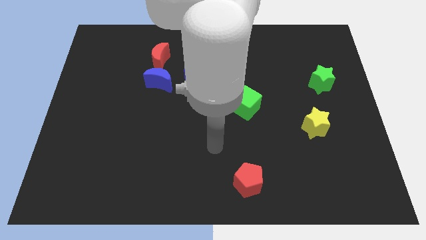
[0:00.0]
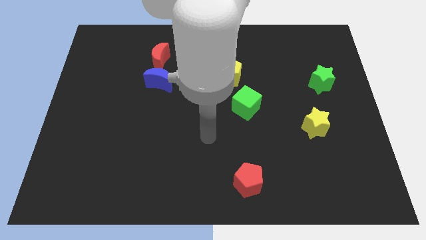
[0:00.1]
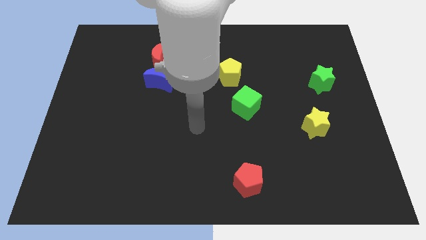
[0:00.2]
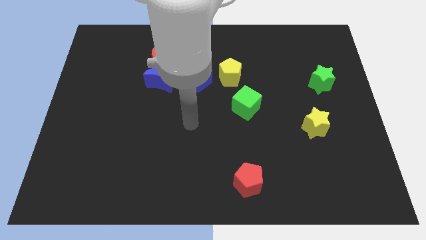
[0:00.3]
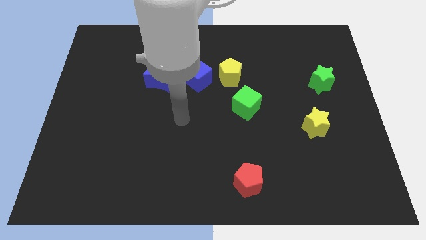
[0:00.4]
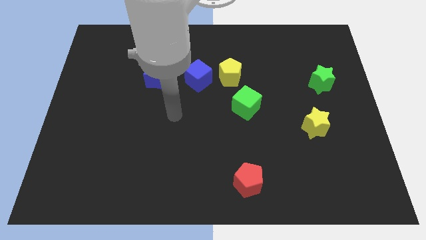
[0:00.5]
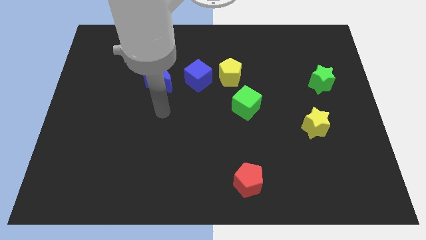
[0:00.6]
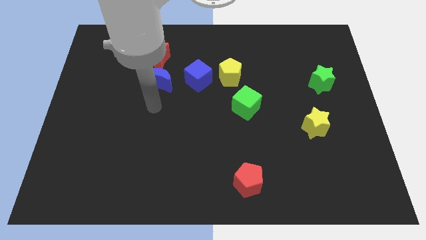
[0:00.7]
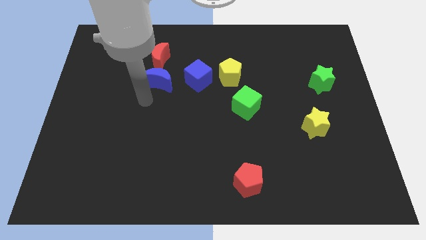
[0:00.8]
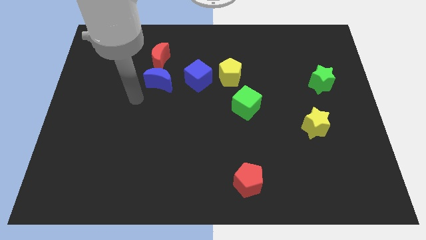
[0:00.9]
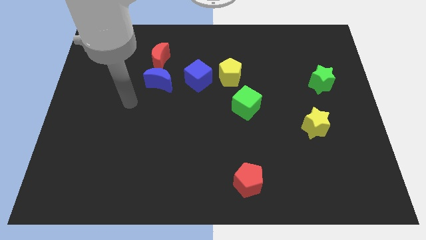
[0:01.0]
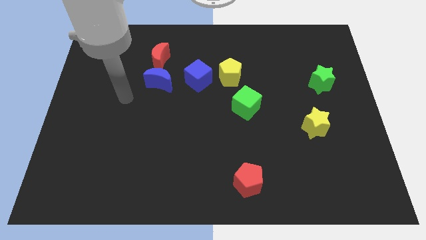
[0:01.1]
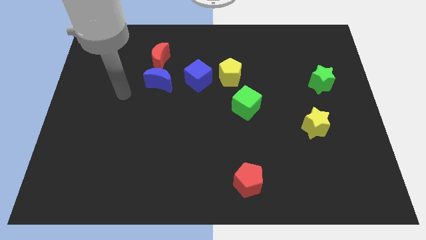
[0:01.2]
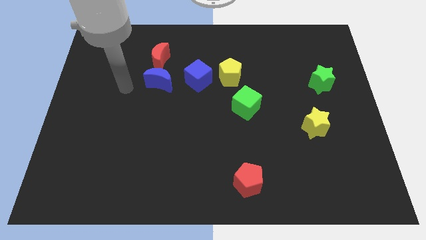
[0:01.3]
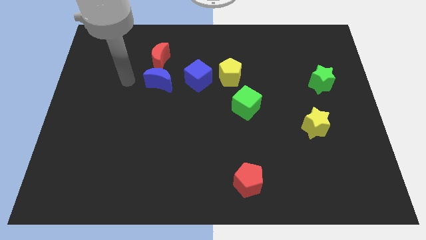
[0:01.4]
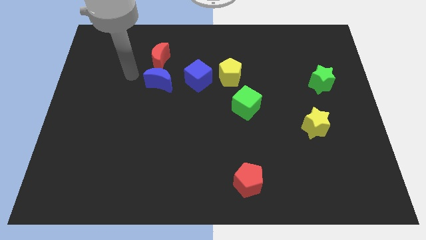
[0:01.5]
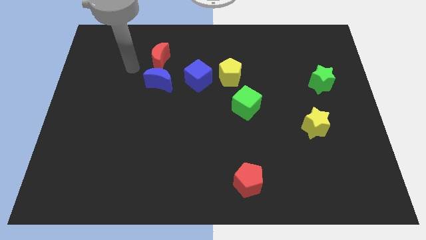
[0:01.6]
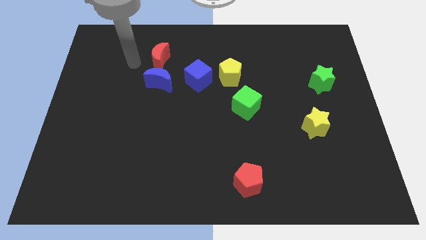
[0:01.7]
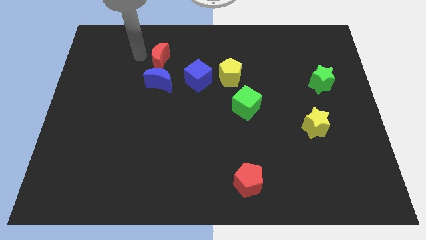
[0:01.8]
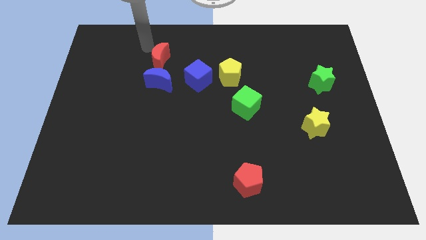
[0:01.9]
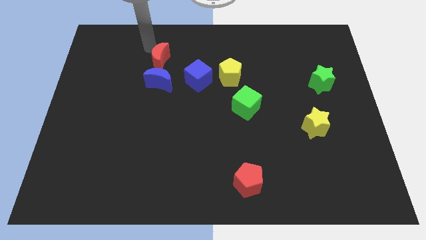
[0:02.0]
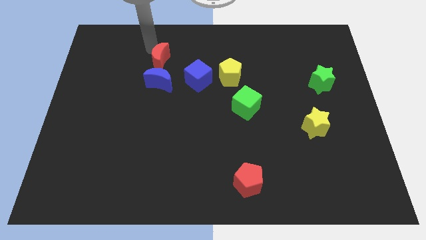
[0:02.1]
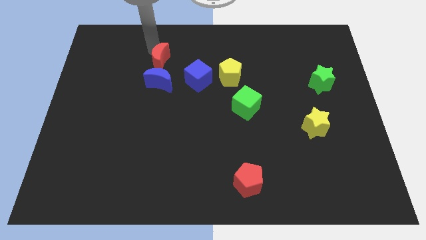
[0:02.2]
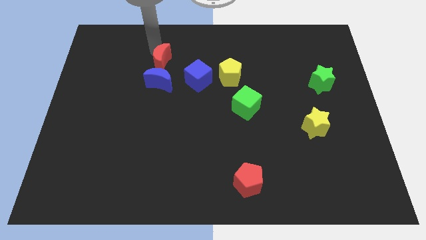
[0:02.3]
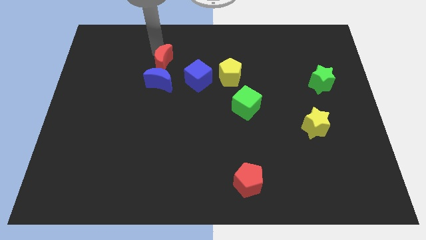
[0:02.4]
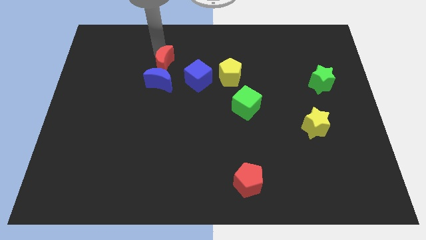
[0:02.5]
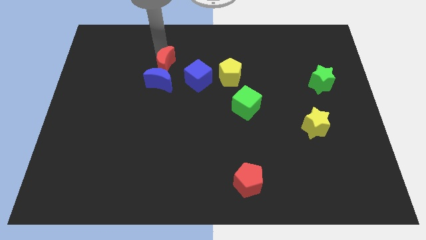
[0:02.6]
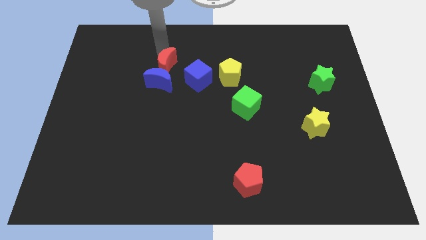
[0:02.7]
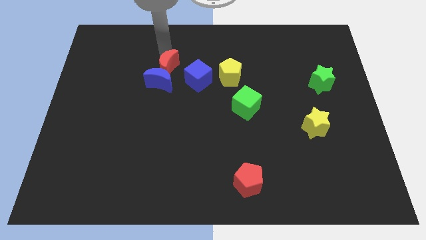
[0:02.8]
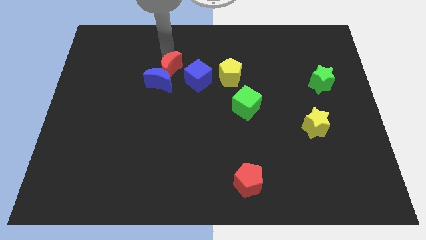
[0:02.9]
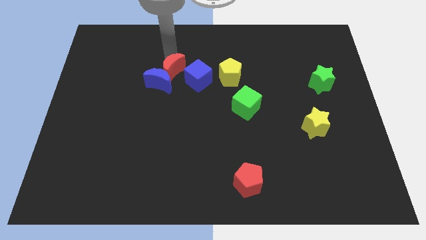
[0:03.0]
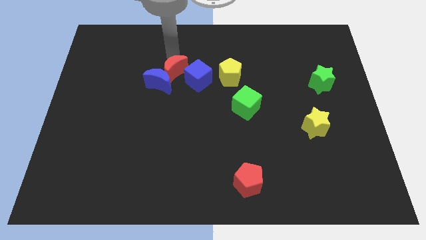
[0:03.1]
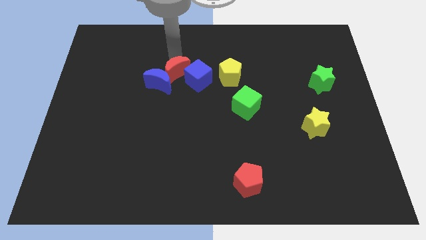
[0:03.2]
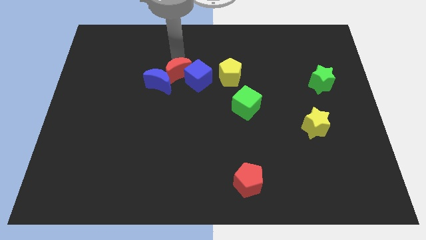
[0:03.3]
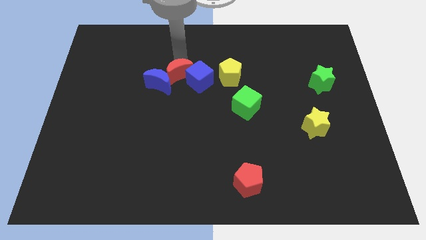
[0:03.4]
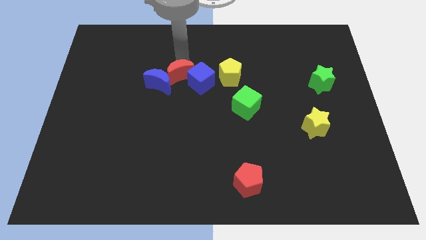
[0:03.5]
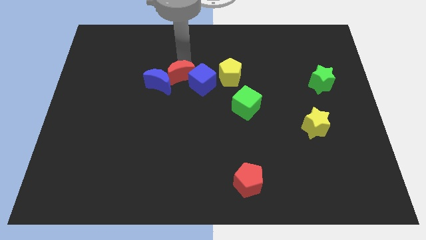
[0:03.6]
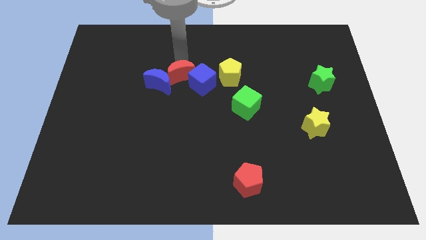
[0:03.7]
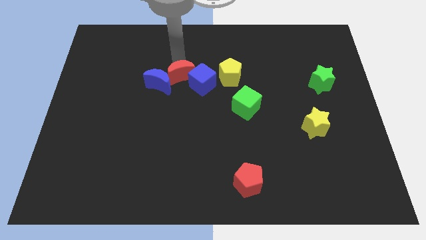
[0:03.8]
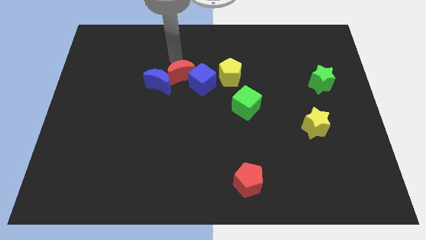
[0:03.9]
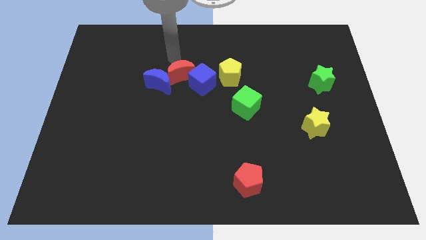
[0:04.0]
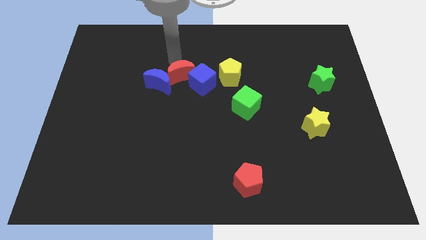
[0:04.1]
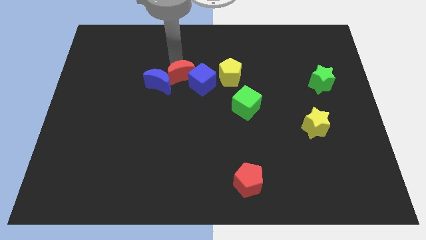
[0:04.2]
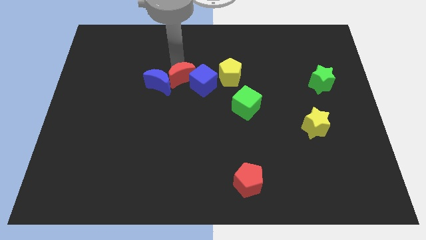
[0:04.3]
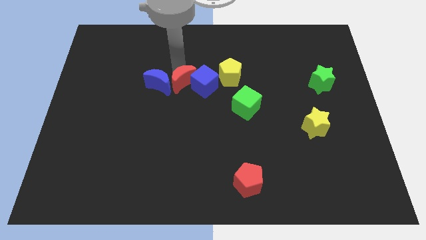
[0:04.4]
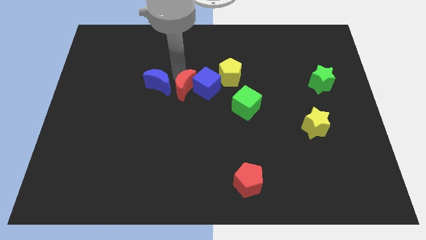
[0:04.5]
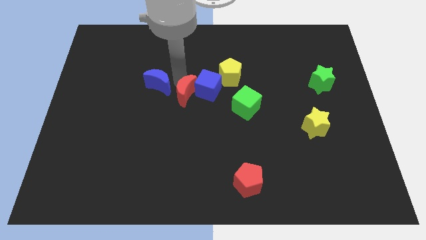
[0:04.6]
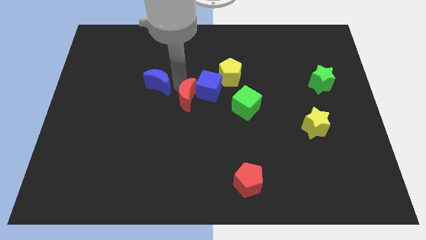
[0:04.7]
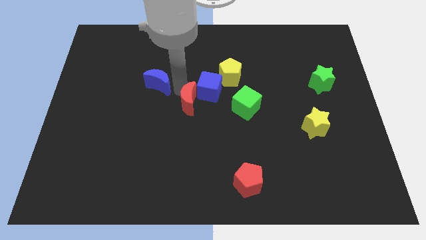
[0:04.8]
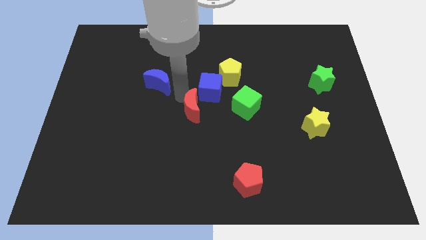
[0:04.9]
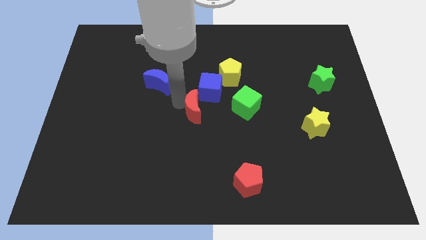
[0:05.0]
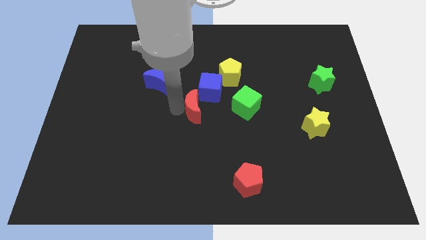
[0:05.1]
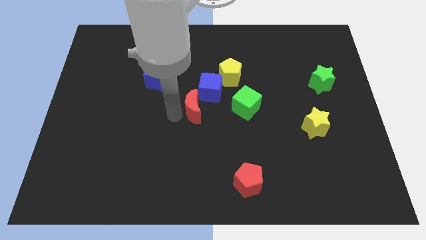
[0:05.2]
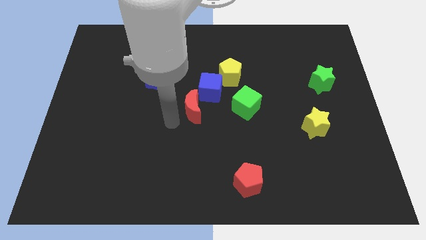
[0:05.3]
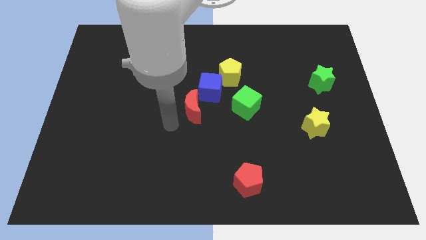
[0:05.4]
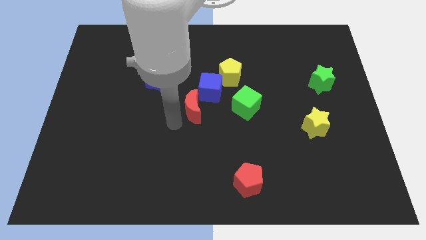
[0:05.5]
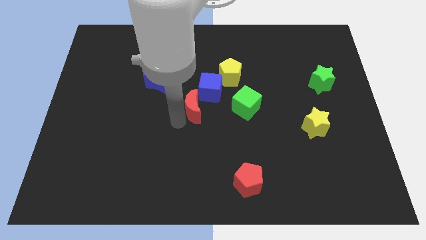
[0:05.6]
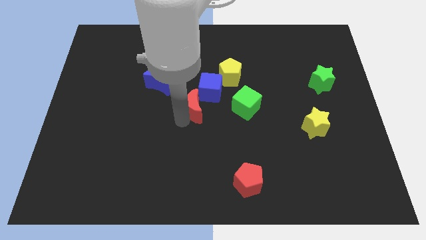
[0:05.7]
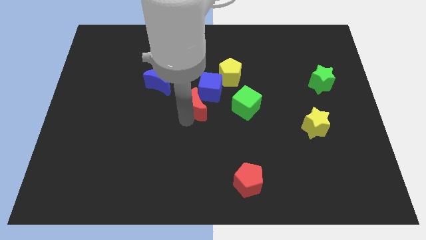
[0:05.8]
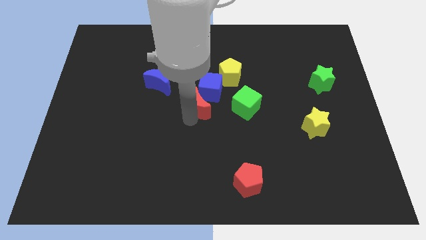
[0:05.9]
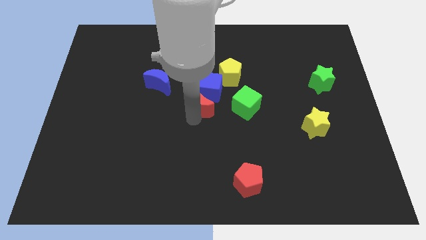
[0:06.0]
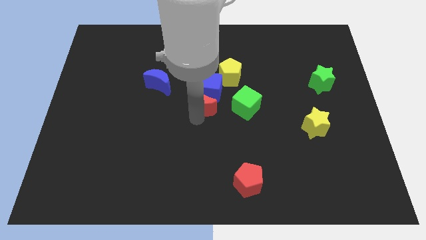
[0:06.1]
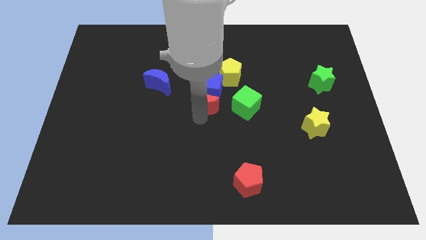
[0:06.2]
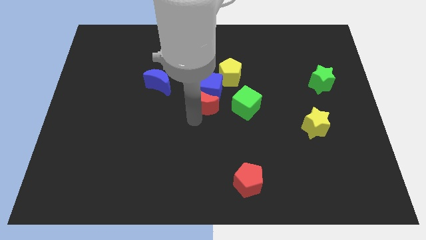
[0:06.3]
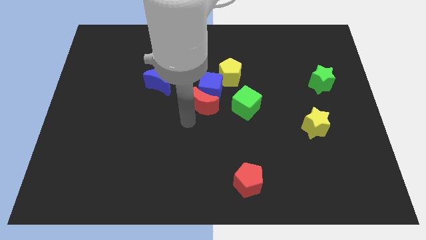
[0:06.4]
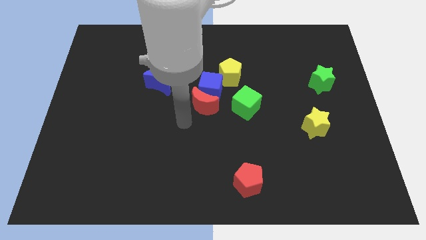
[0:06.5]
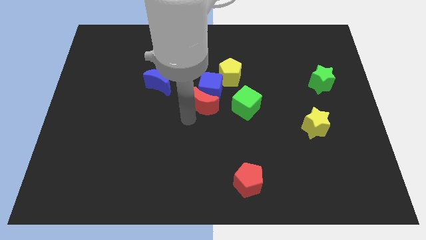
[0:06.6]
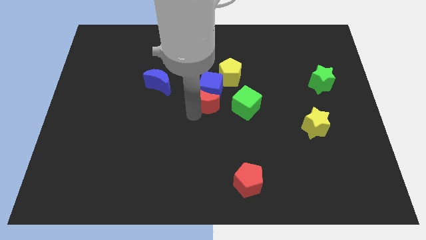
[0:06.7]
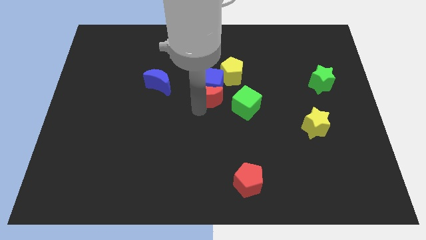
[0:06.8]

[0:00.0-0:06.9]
move the red moon diagonally up and to the left of the green cube
